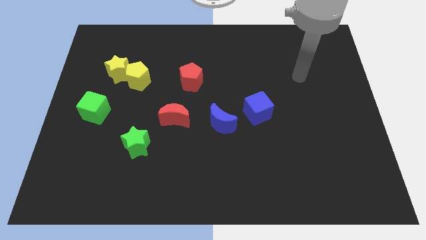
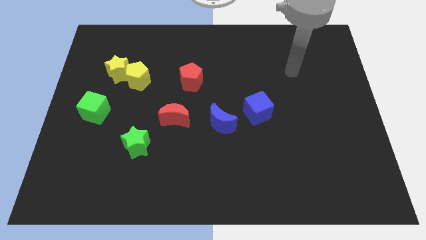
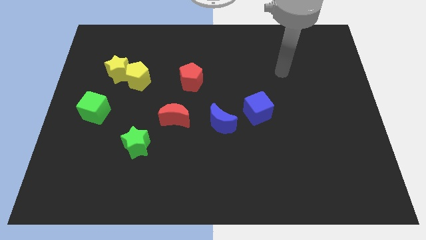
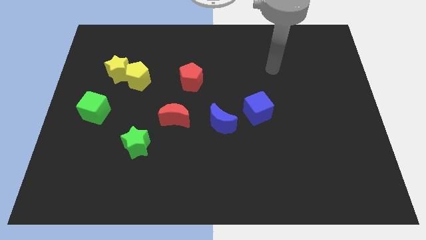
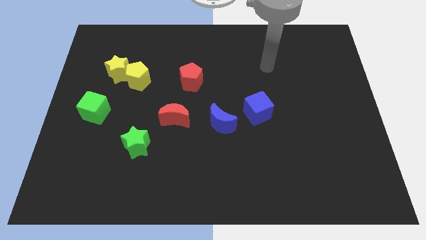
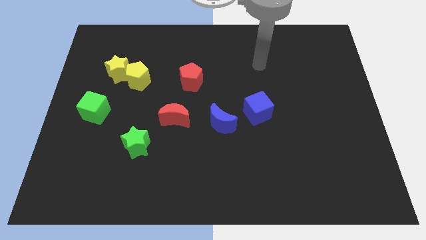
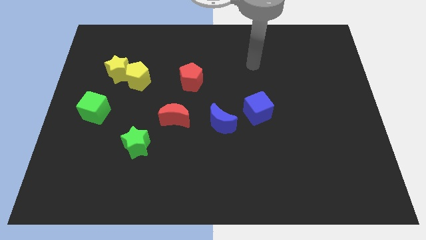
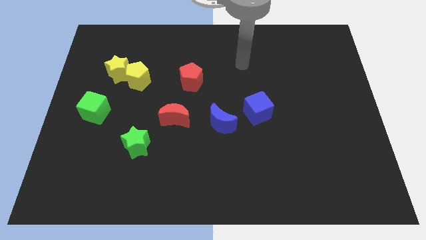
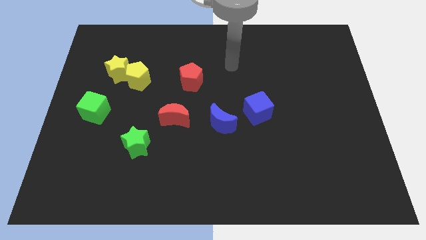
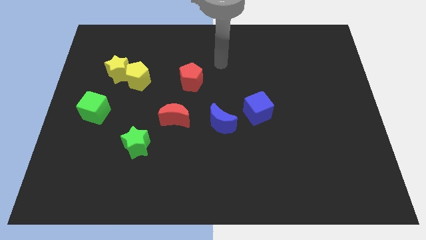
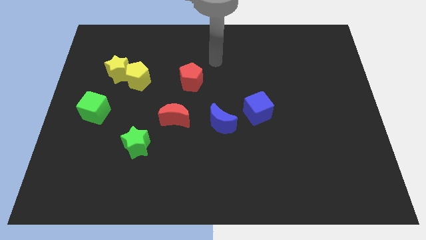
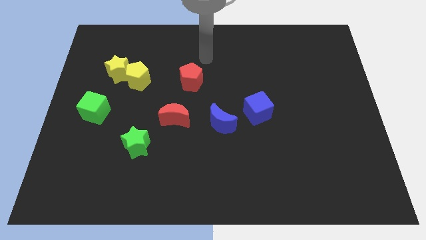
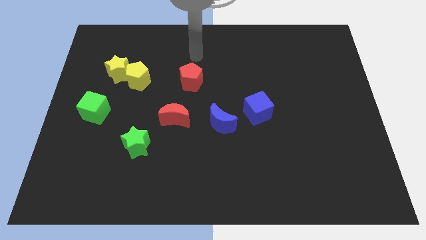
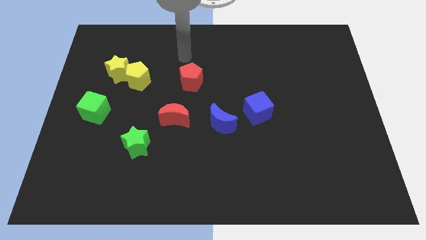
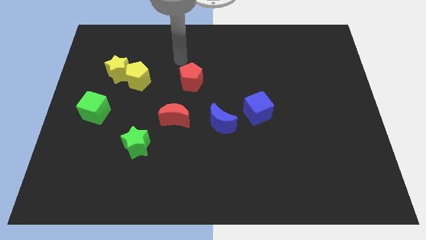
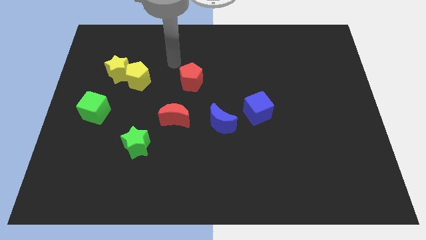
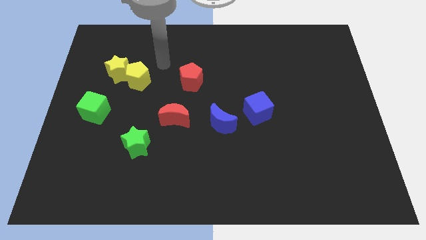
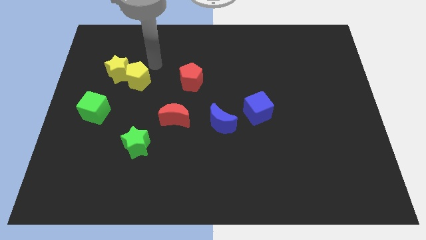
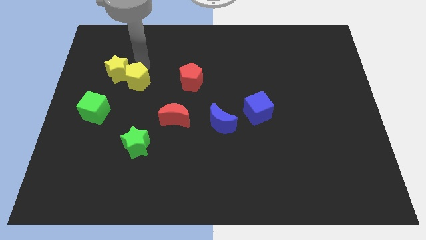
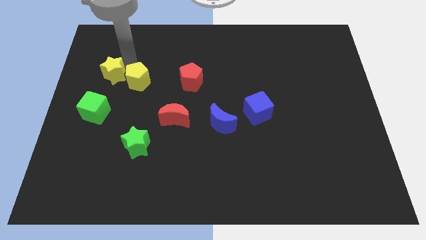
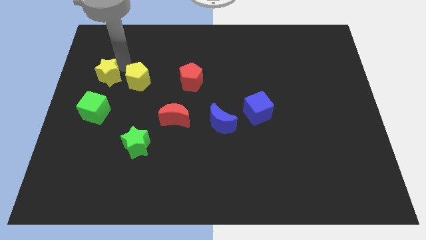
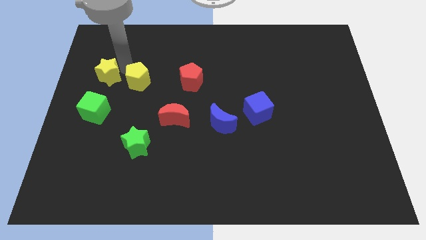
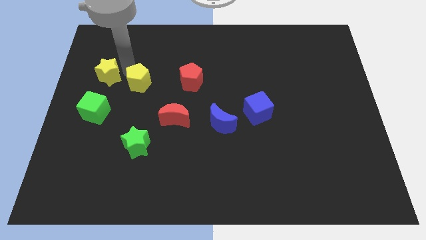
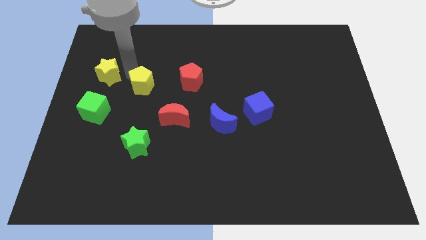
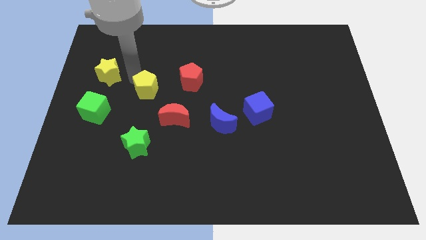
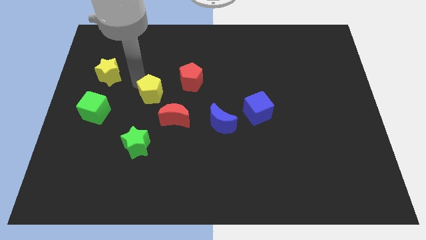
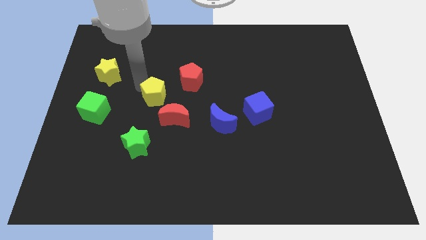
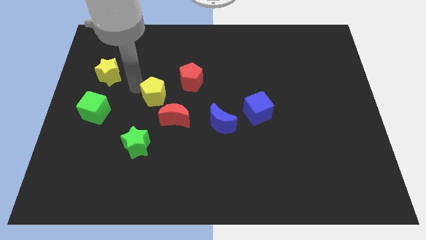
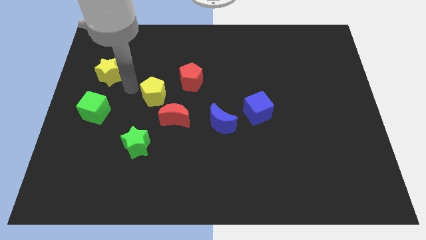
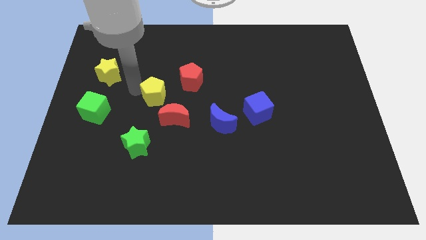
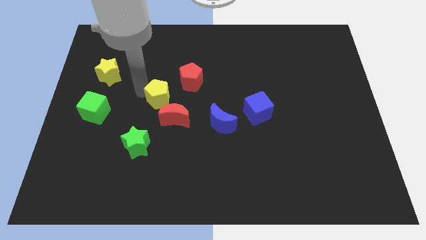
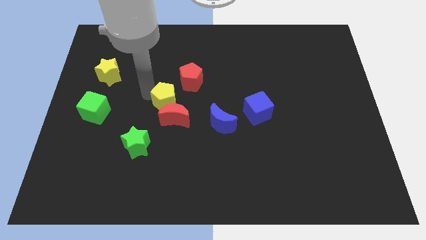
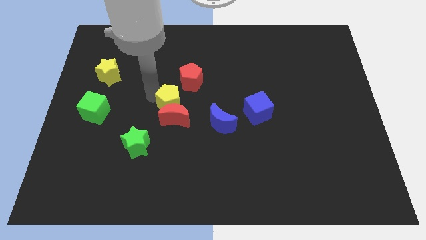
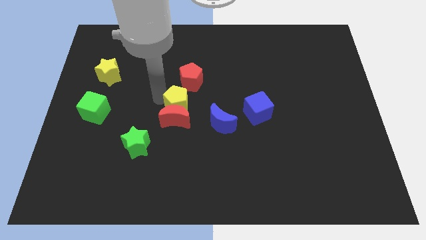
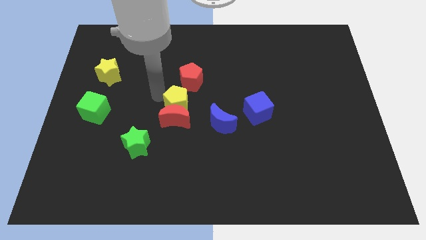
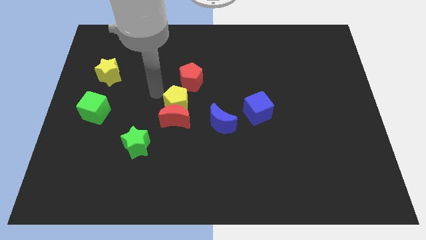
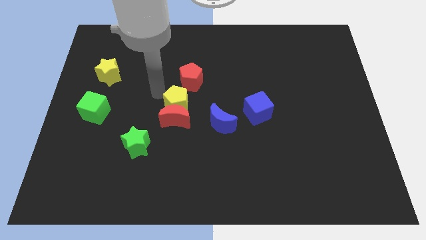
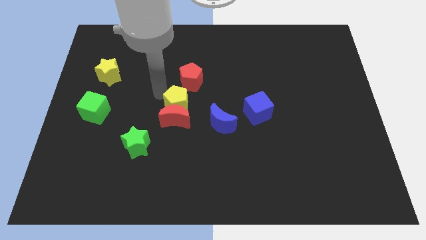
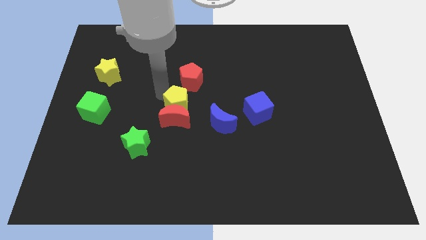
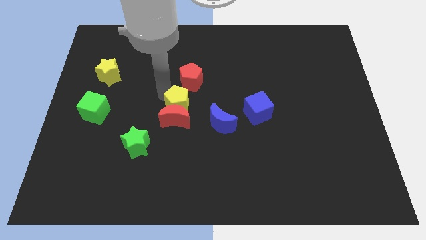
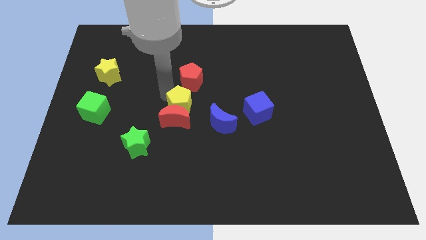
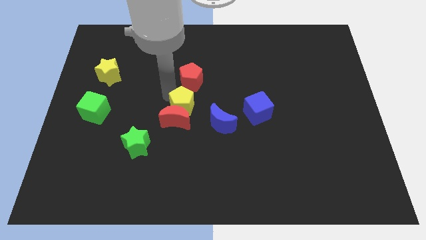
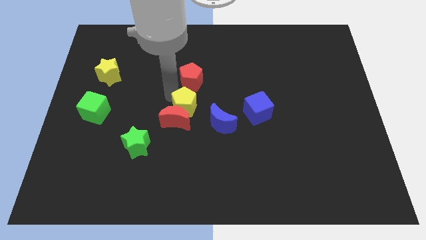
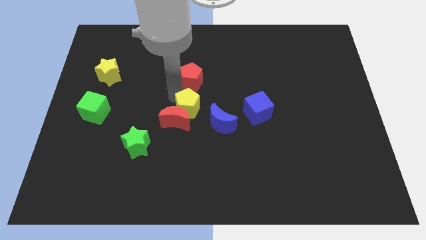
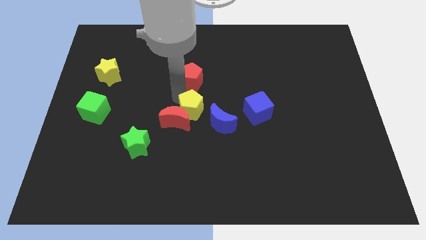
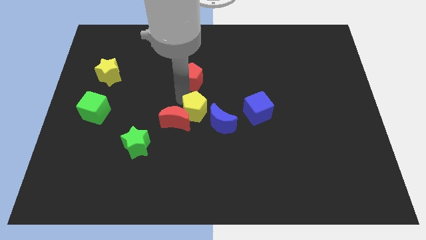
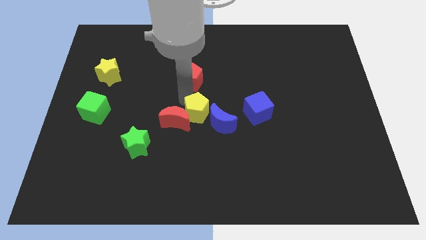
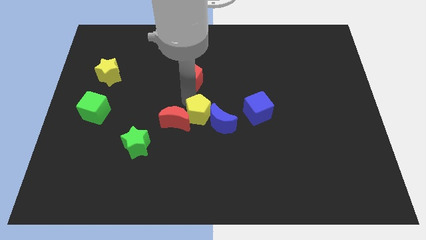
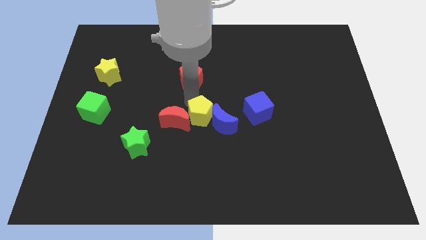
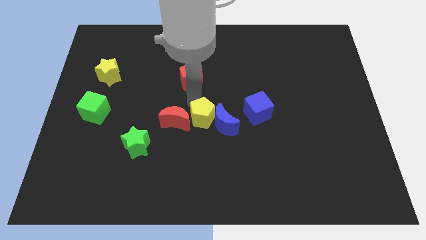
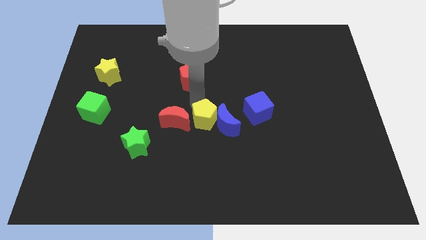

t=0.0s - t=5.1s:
push the yellow pentagon downwards and then right

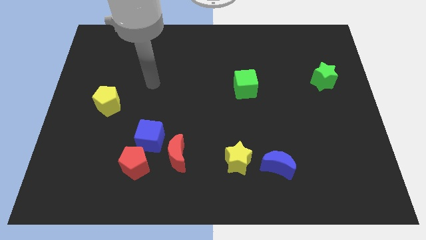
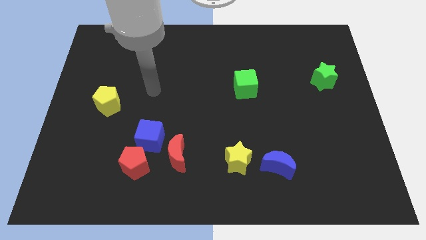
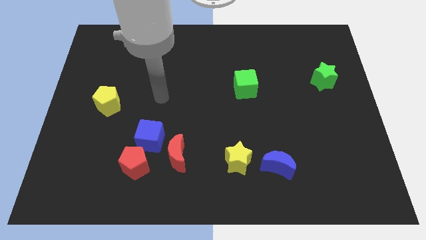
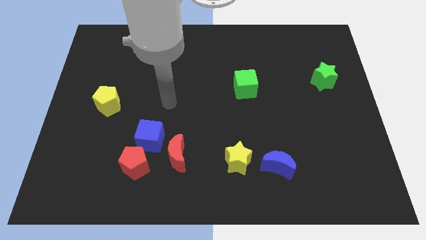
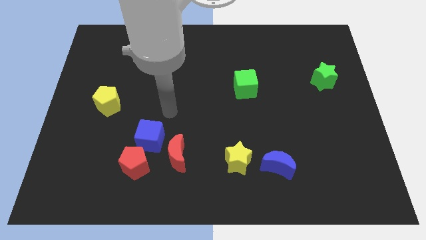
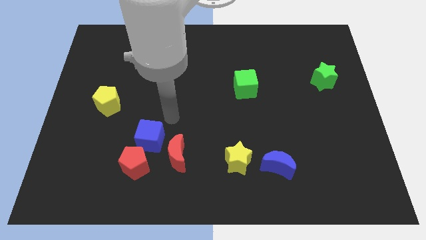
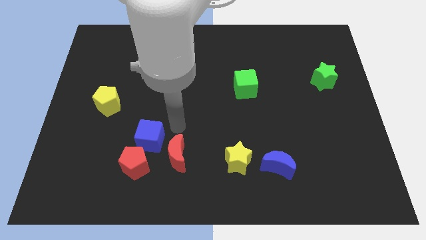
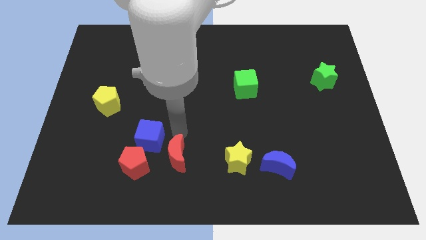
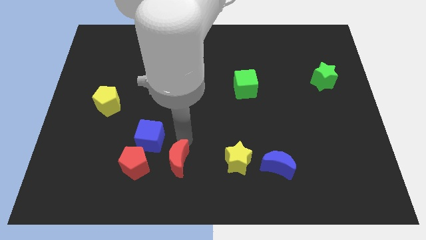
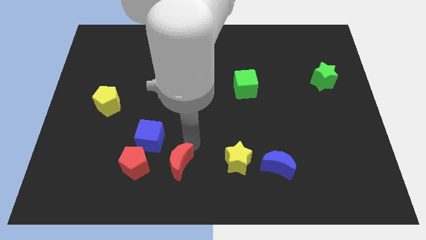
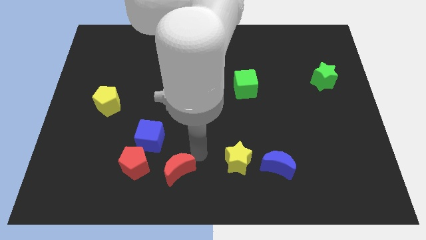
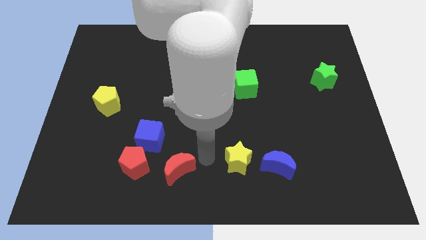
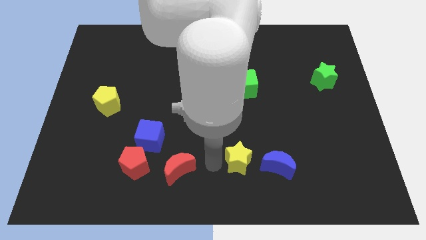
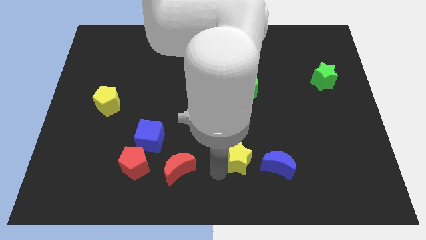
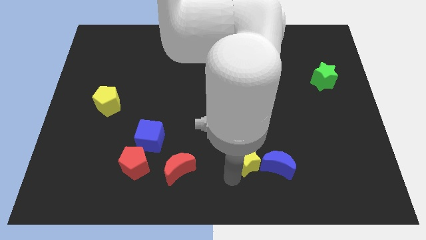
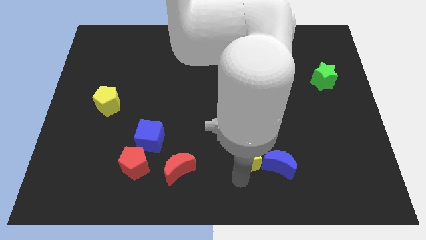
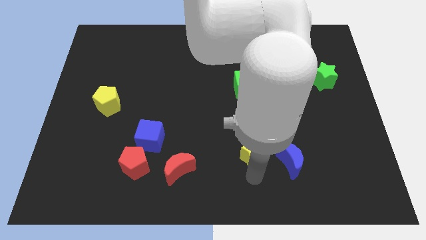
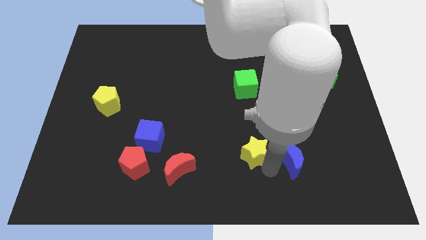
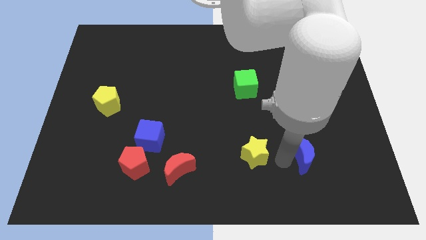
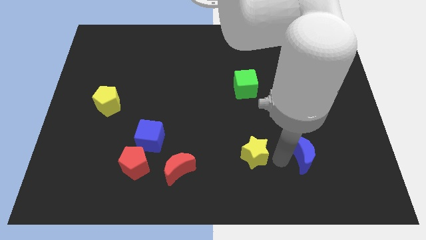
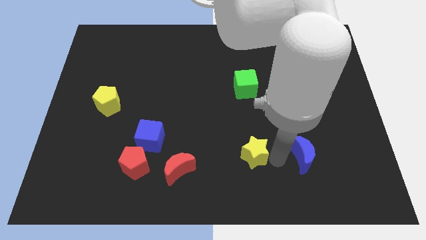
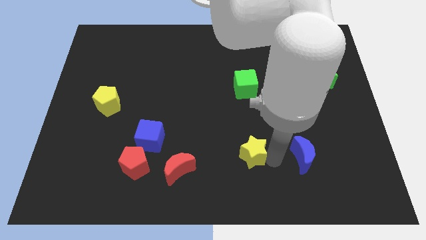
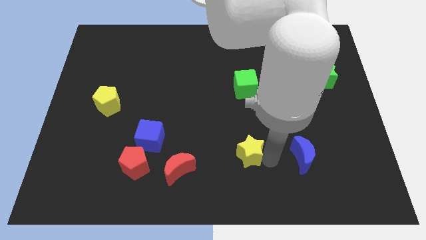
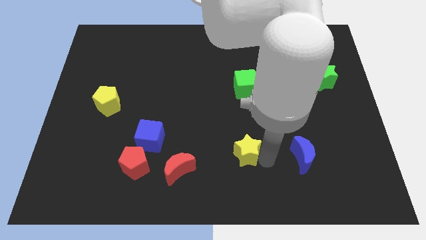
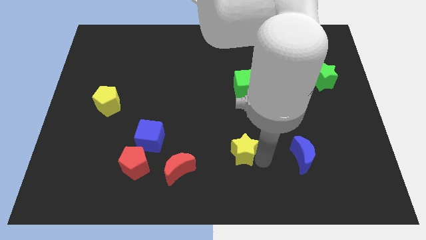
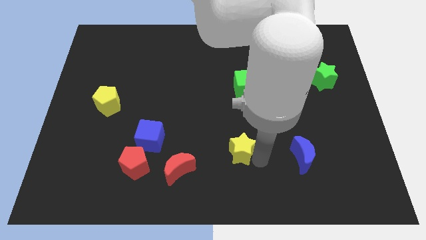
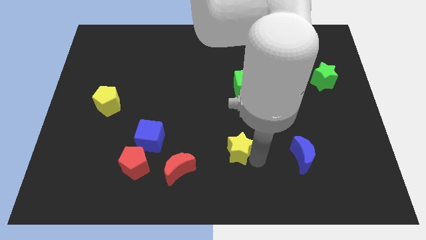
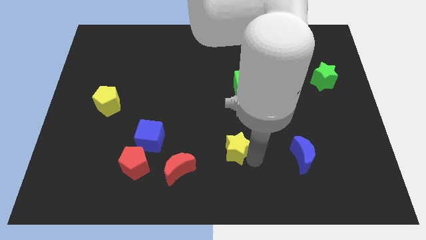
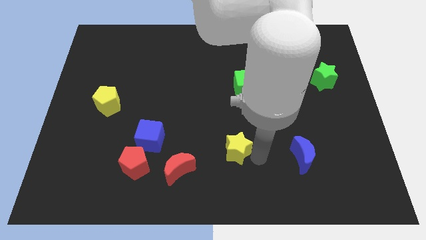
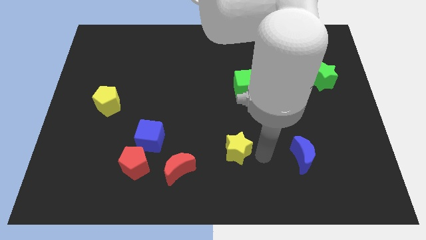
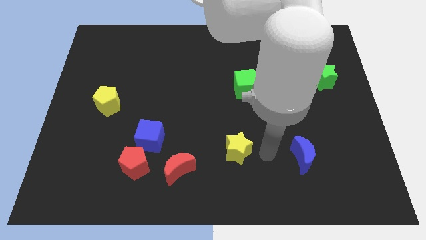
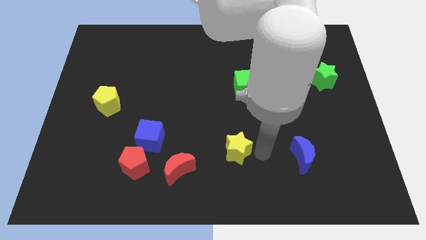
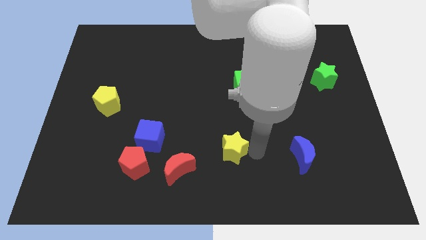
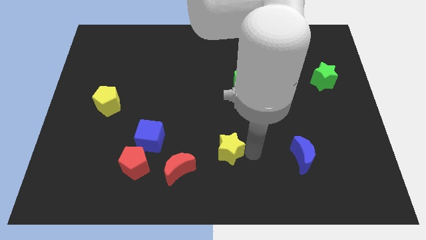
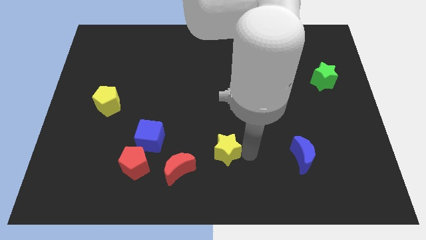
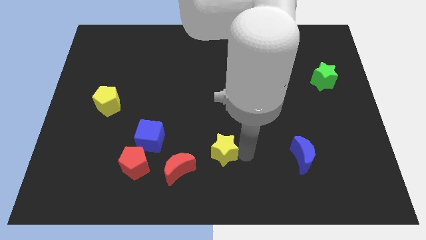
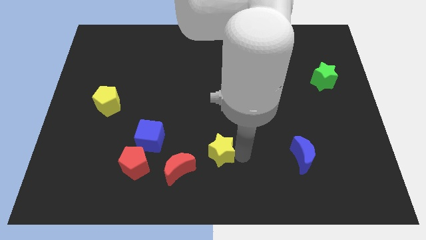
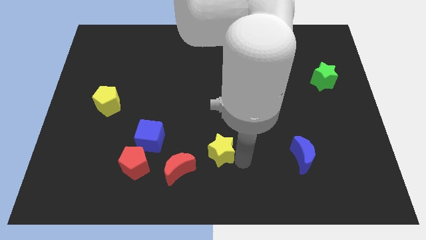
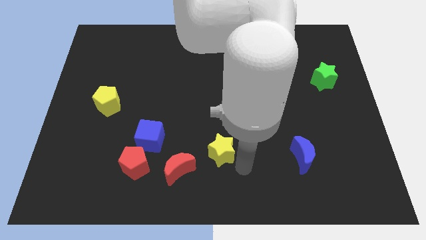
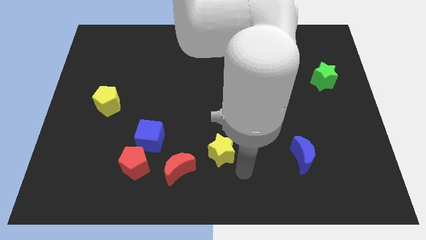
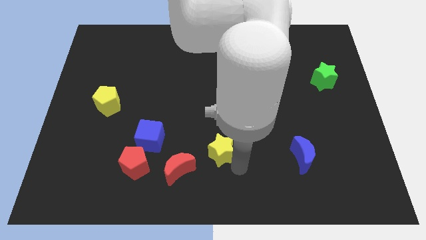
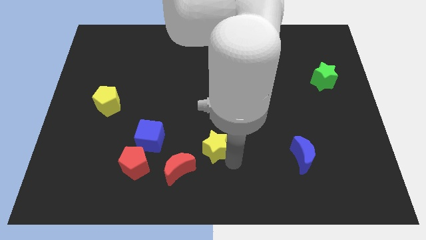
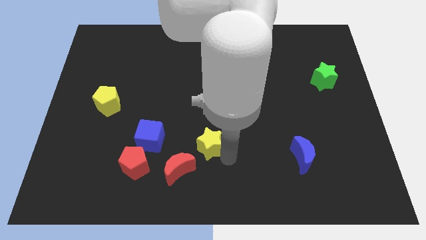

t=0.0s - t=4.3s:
slide the yellow star up and left a bit
